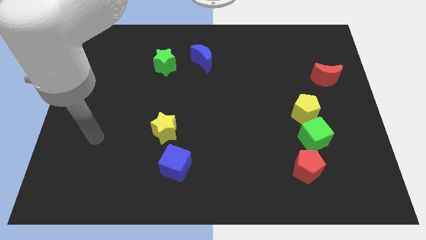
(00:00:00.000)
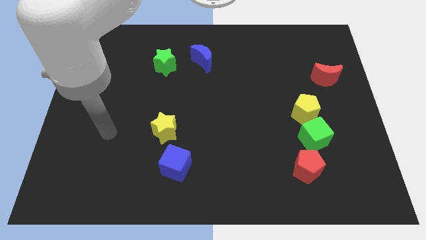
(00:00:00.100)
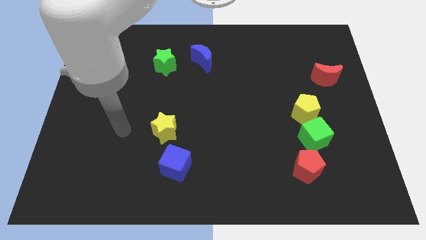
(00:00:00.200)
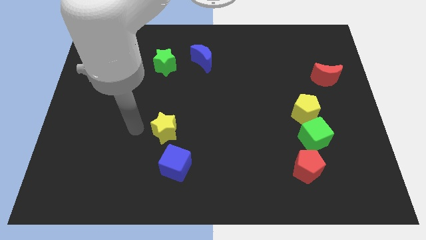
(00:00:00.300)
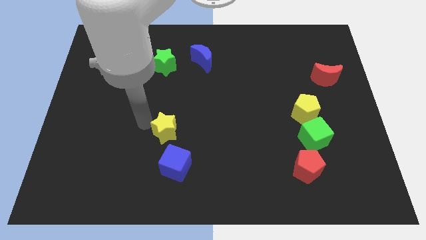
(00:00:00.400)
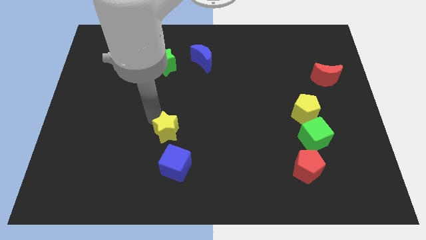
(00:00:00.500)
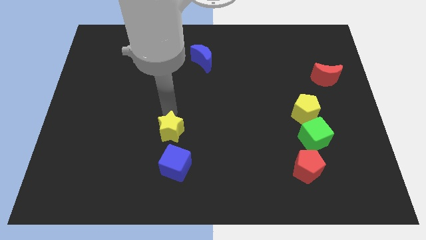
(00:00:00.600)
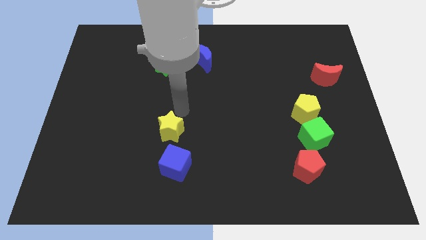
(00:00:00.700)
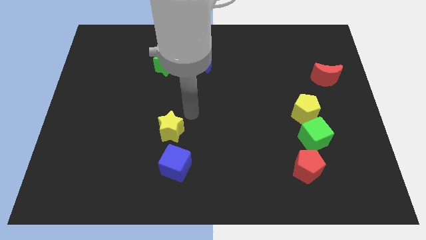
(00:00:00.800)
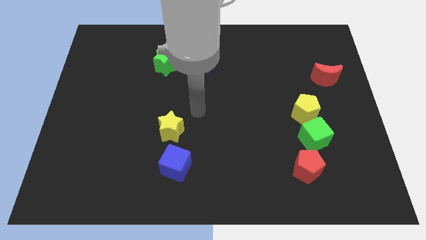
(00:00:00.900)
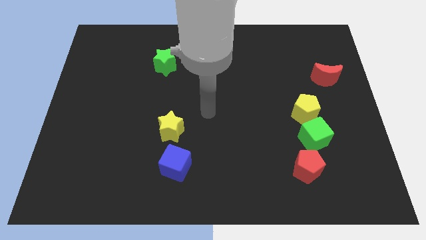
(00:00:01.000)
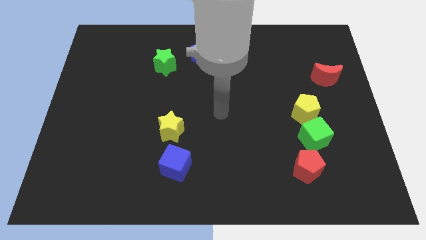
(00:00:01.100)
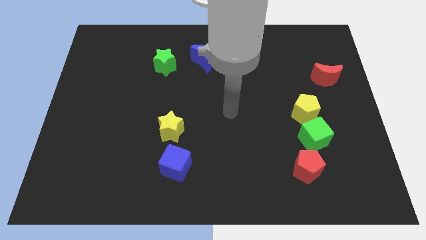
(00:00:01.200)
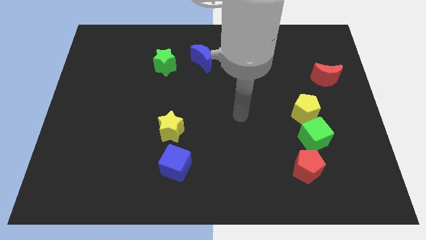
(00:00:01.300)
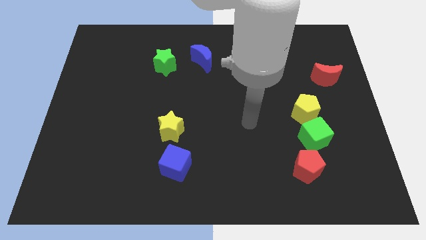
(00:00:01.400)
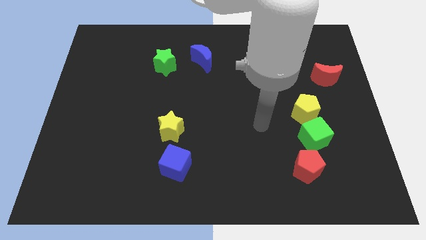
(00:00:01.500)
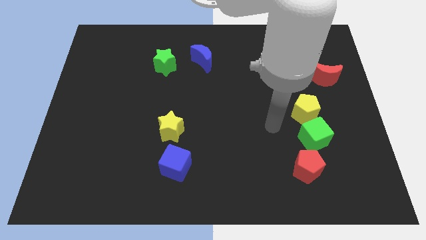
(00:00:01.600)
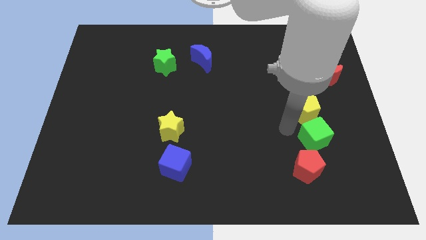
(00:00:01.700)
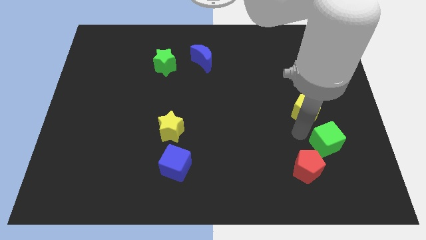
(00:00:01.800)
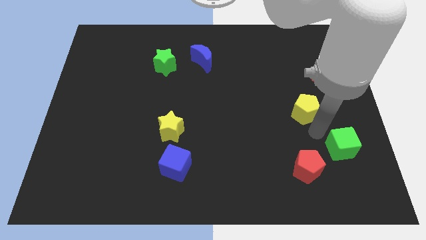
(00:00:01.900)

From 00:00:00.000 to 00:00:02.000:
separate the yellow pentagon from the green cube

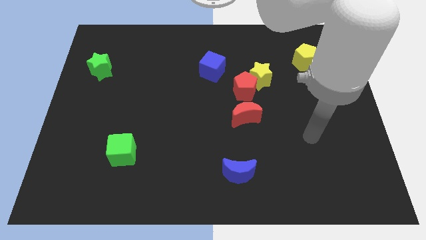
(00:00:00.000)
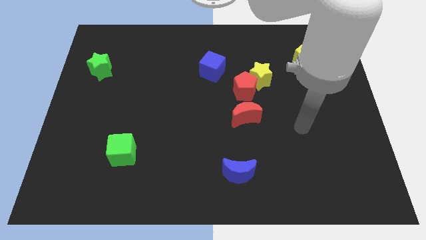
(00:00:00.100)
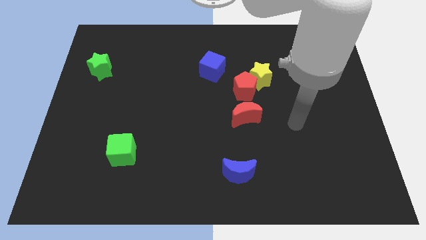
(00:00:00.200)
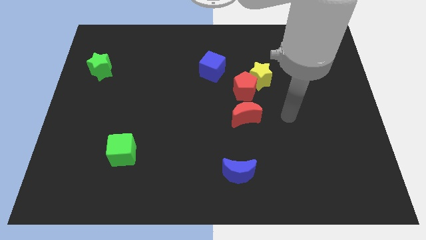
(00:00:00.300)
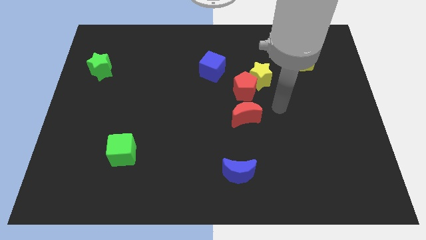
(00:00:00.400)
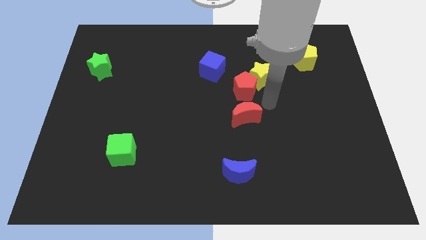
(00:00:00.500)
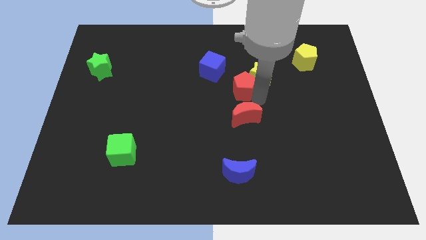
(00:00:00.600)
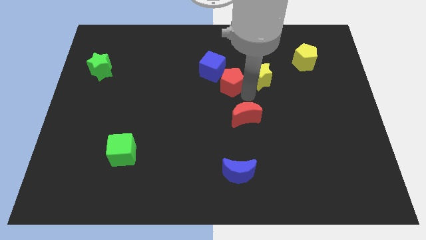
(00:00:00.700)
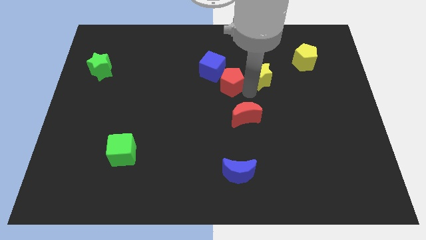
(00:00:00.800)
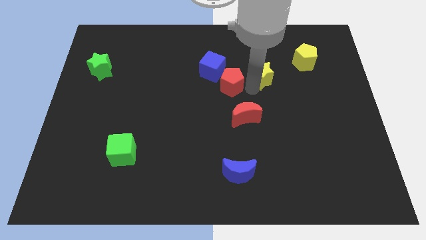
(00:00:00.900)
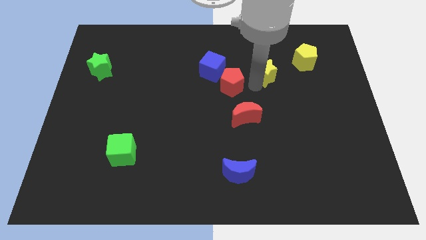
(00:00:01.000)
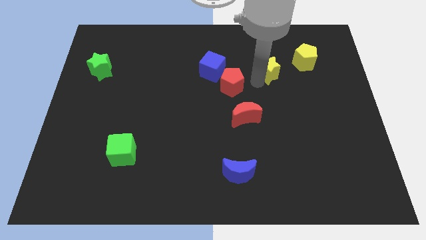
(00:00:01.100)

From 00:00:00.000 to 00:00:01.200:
move the yellow star away from the red pentagon

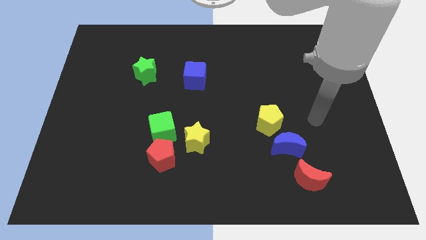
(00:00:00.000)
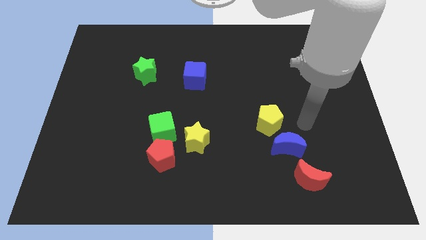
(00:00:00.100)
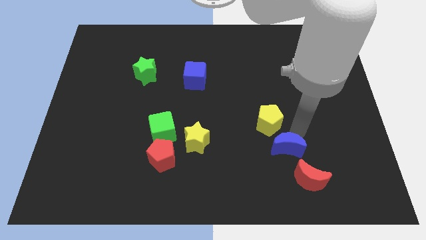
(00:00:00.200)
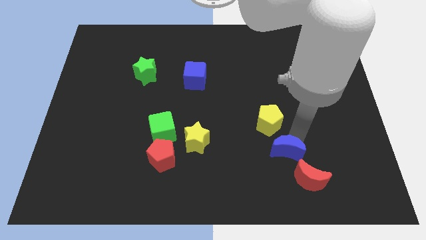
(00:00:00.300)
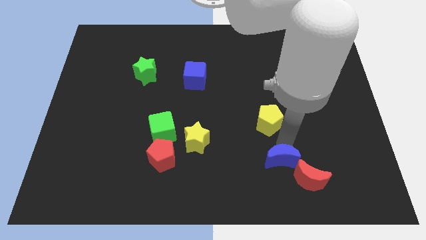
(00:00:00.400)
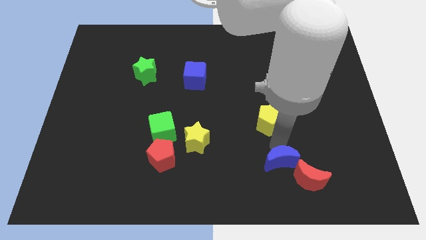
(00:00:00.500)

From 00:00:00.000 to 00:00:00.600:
separate the yellow pentagon from the blue moon

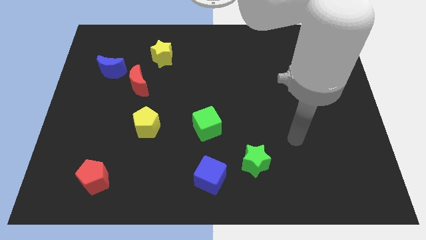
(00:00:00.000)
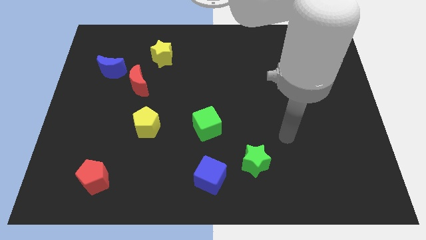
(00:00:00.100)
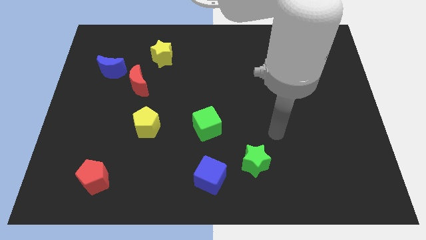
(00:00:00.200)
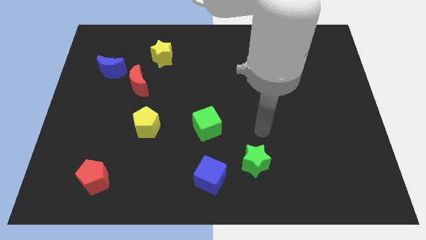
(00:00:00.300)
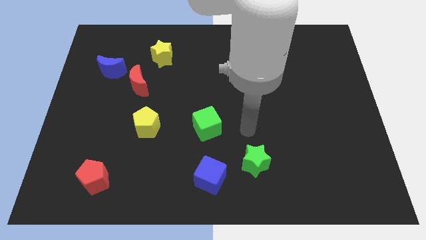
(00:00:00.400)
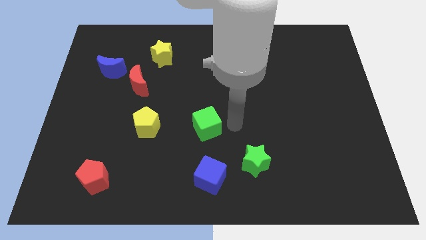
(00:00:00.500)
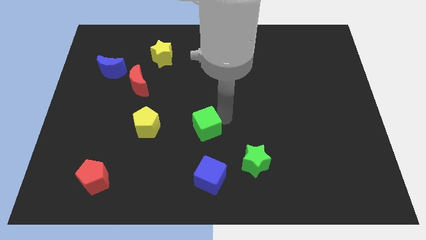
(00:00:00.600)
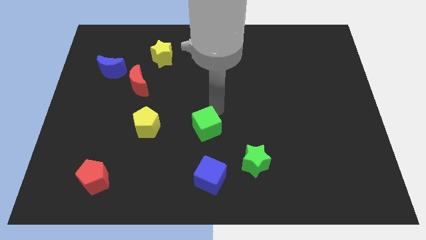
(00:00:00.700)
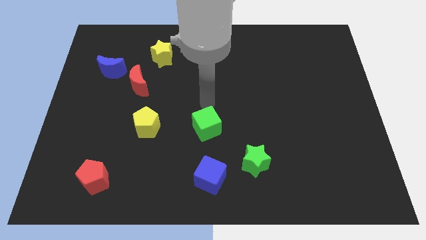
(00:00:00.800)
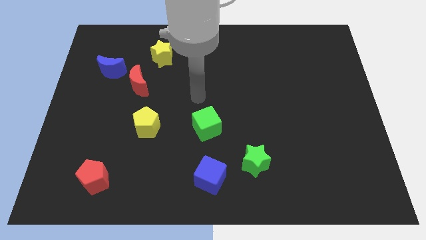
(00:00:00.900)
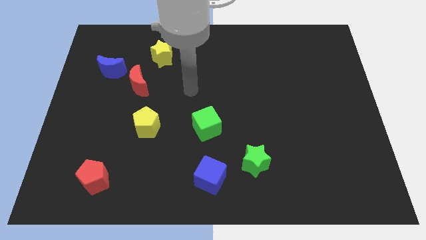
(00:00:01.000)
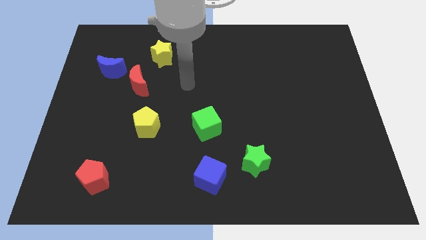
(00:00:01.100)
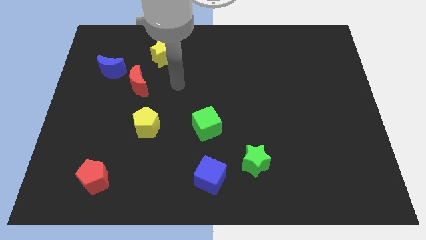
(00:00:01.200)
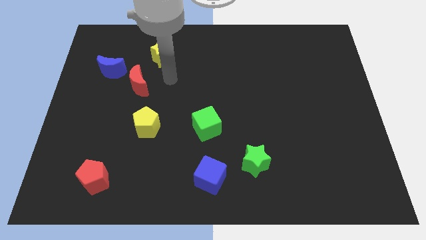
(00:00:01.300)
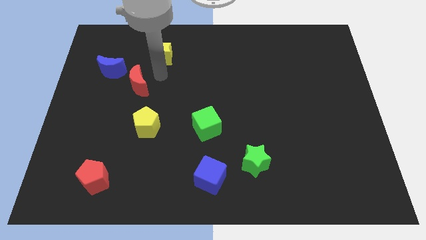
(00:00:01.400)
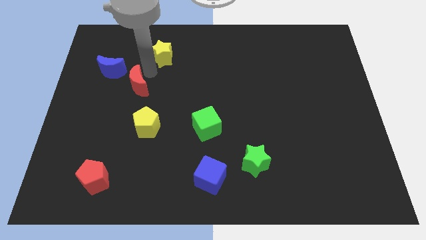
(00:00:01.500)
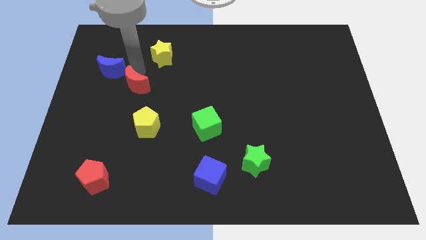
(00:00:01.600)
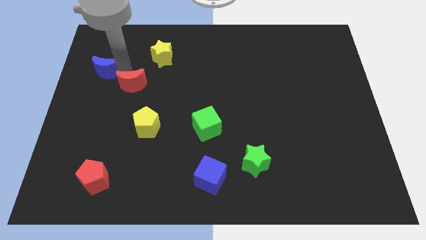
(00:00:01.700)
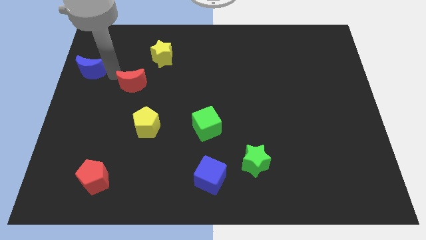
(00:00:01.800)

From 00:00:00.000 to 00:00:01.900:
separate the red moon from the blue moon

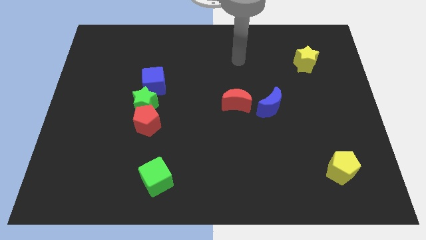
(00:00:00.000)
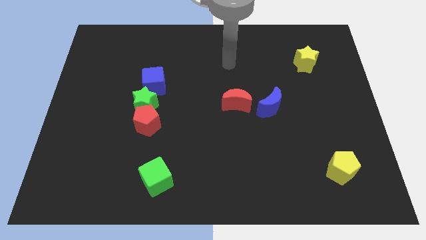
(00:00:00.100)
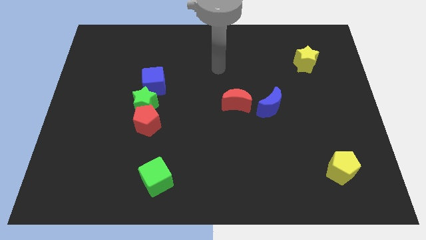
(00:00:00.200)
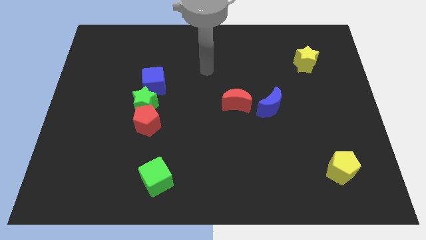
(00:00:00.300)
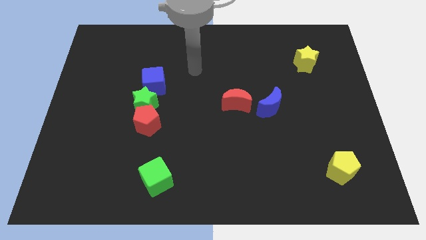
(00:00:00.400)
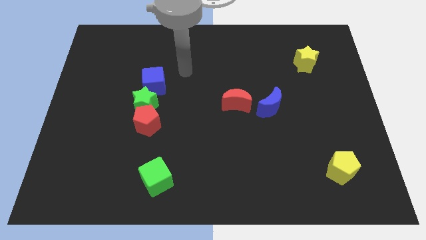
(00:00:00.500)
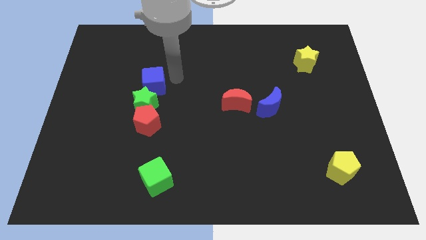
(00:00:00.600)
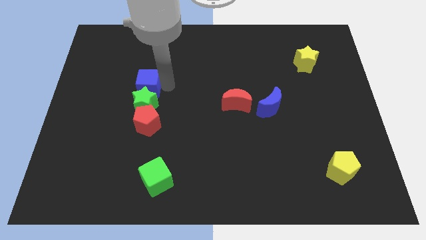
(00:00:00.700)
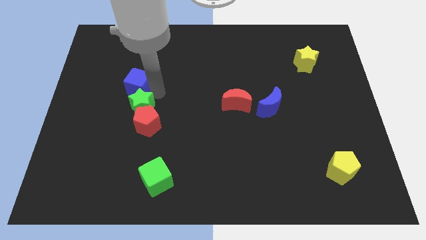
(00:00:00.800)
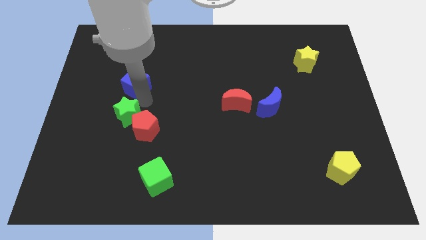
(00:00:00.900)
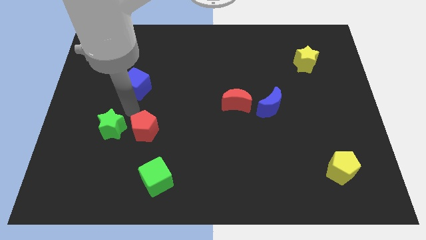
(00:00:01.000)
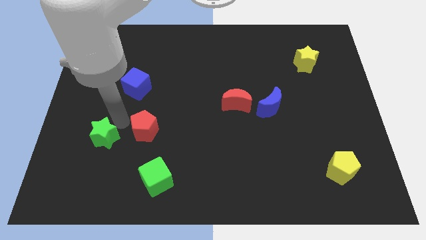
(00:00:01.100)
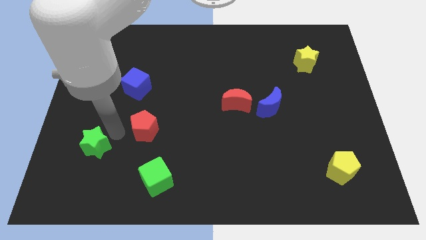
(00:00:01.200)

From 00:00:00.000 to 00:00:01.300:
separate the red pentagon from the green star

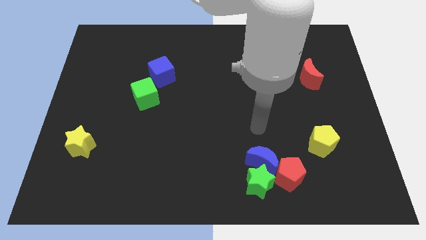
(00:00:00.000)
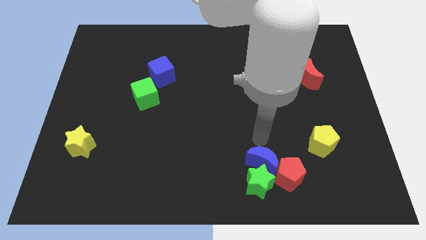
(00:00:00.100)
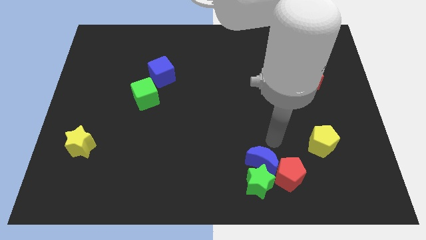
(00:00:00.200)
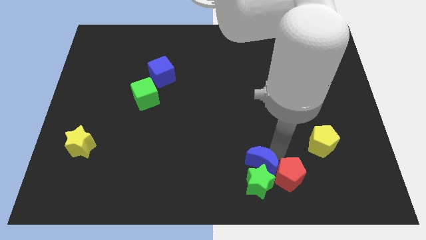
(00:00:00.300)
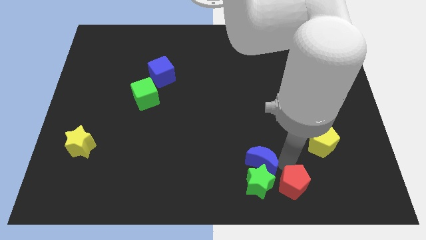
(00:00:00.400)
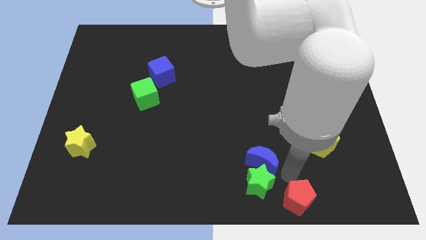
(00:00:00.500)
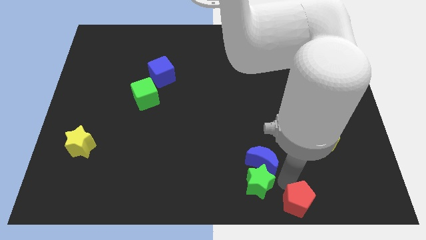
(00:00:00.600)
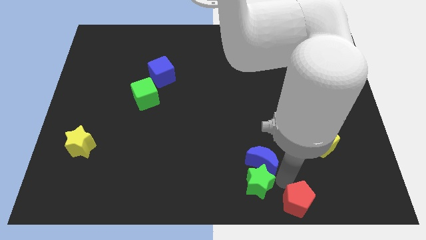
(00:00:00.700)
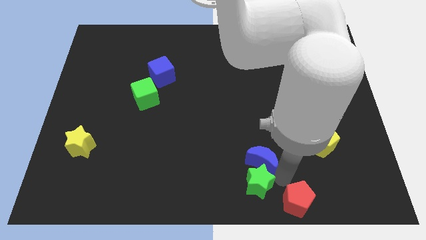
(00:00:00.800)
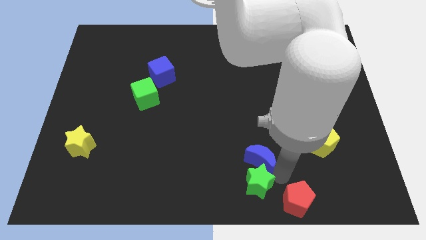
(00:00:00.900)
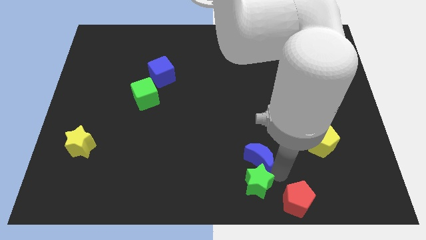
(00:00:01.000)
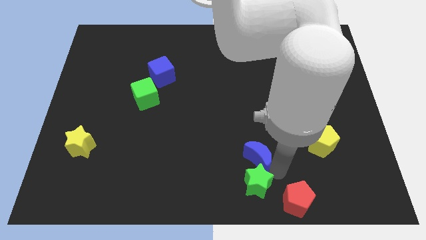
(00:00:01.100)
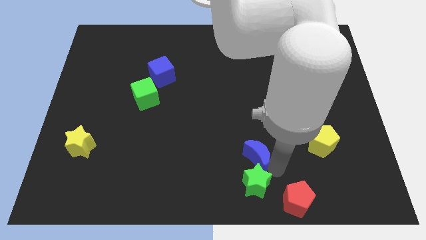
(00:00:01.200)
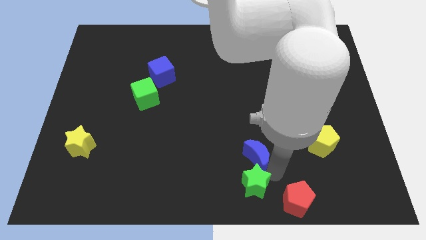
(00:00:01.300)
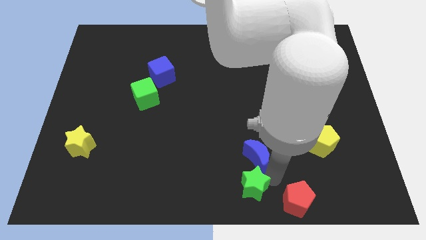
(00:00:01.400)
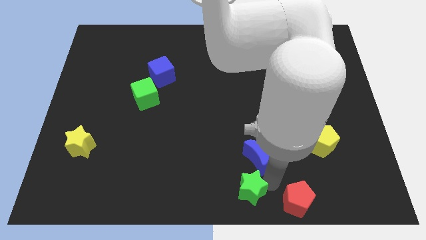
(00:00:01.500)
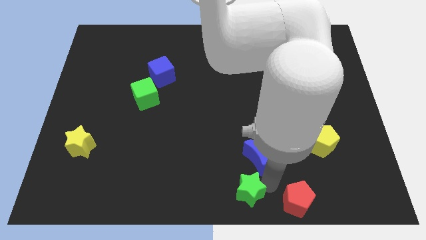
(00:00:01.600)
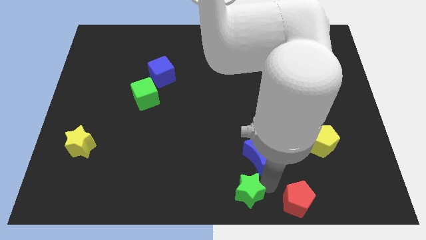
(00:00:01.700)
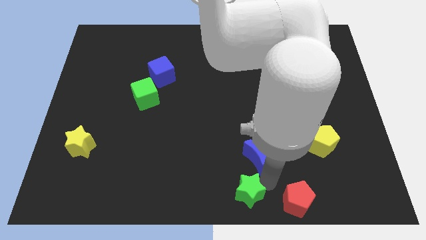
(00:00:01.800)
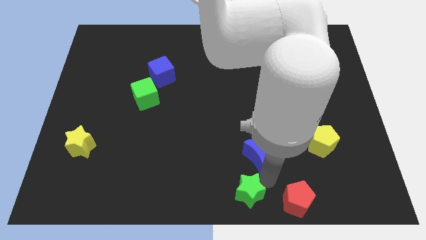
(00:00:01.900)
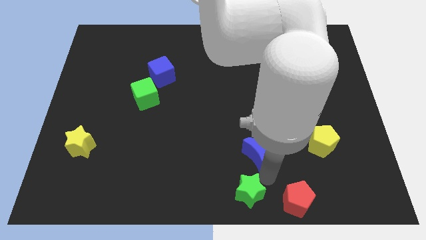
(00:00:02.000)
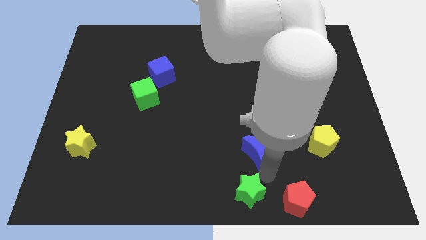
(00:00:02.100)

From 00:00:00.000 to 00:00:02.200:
separate the blue moon from the green star and red pentagon

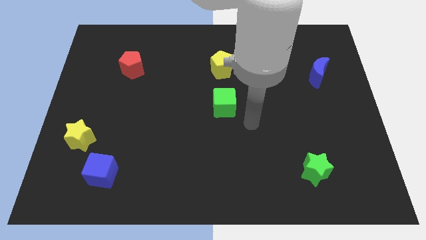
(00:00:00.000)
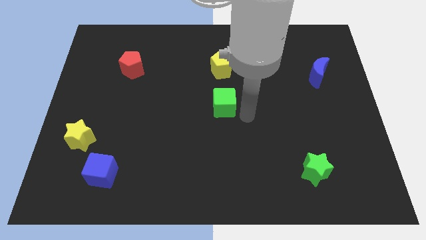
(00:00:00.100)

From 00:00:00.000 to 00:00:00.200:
pull the red moon apart from the yellow pentagon
